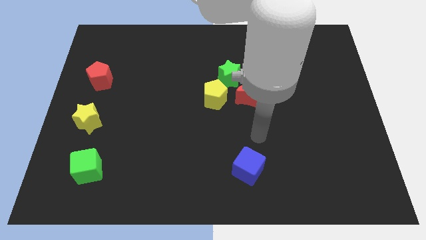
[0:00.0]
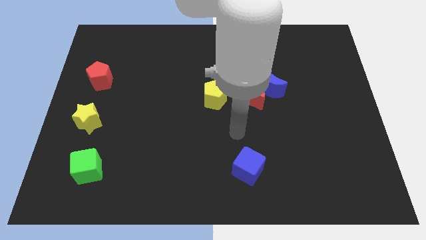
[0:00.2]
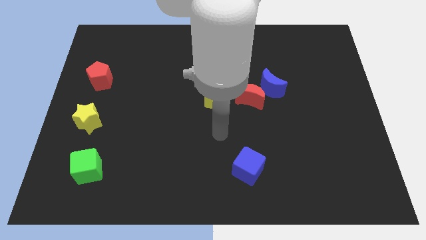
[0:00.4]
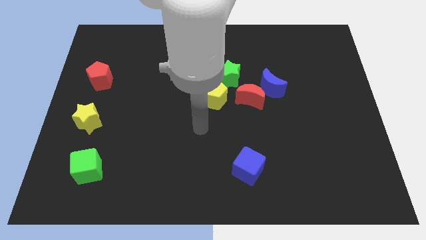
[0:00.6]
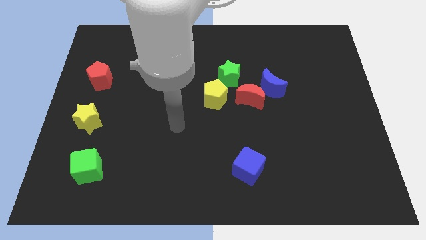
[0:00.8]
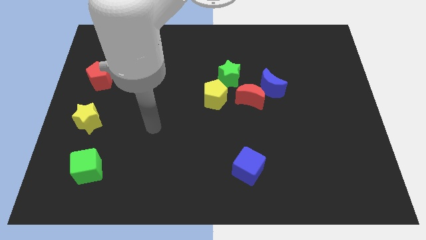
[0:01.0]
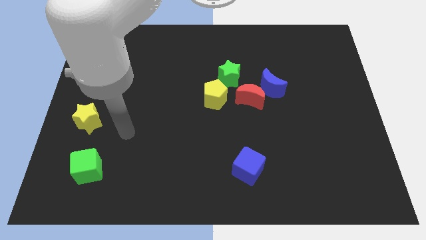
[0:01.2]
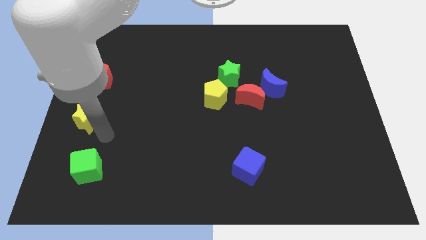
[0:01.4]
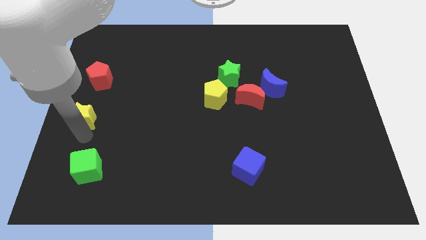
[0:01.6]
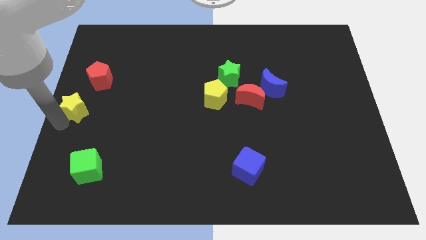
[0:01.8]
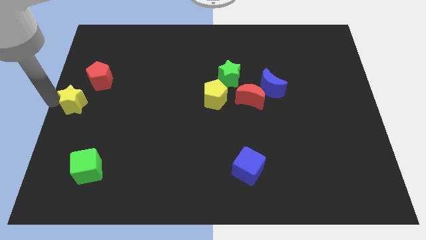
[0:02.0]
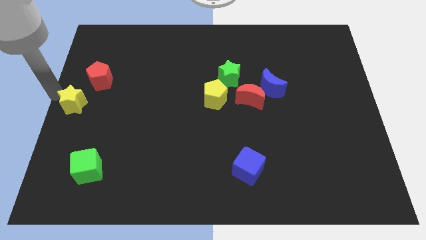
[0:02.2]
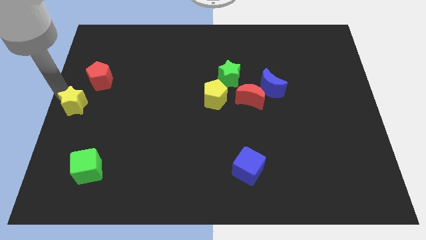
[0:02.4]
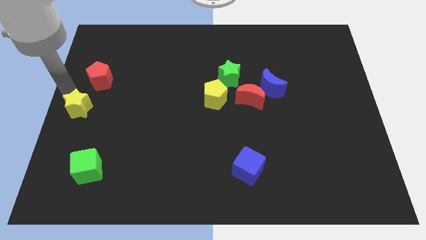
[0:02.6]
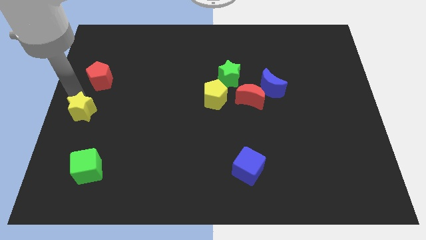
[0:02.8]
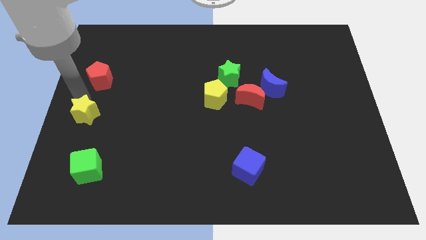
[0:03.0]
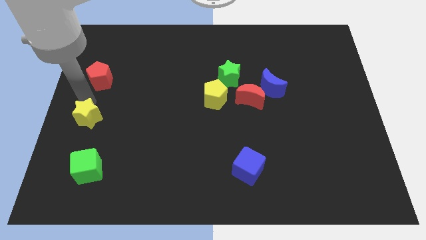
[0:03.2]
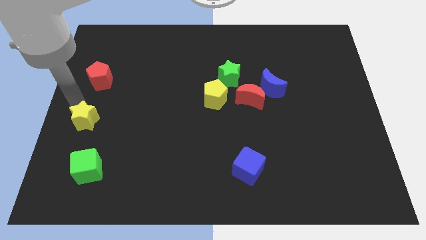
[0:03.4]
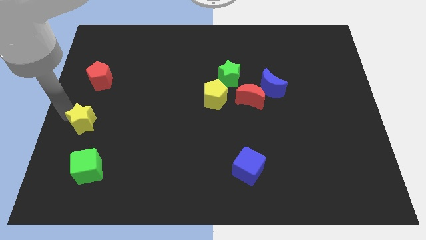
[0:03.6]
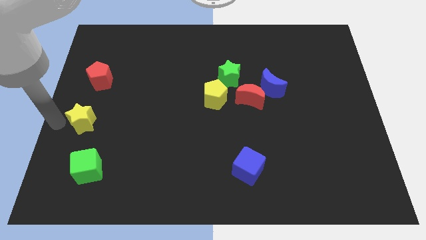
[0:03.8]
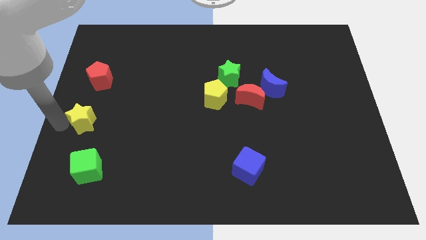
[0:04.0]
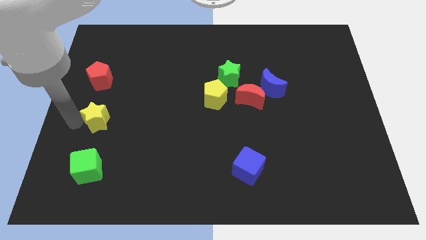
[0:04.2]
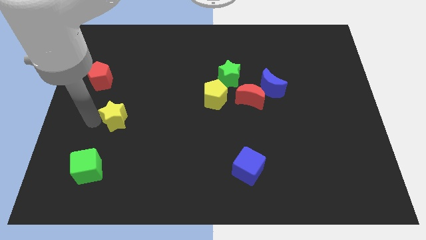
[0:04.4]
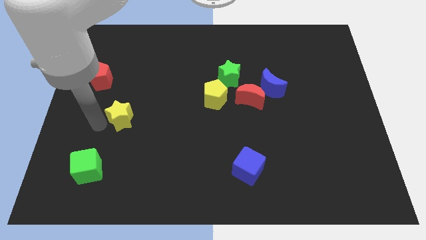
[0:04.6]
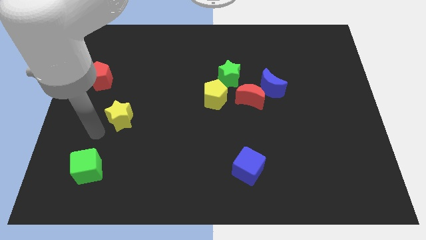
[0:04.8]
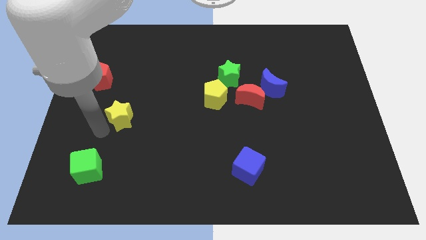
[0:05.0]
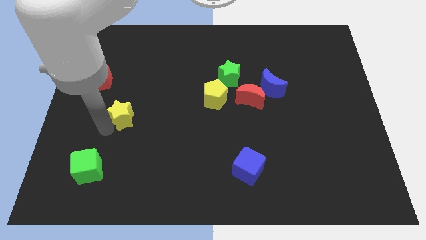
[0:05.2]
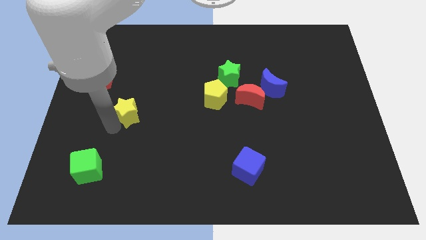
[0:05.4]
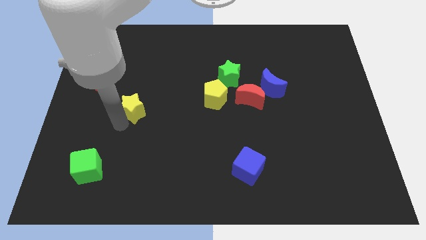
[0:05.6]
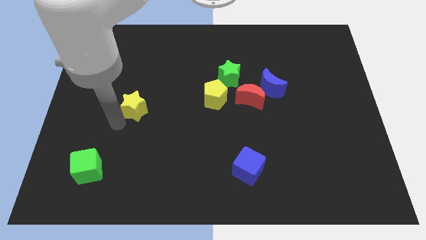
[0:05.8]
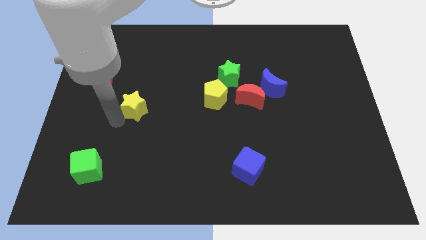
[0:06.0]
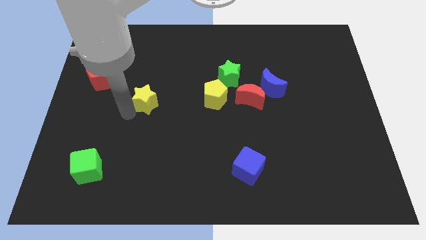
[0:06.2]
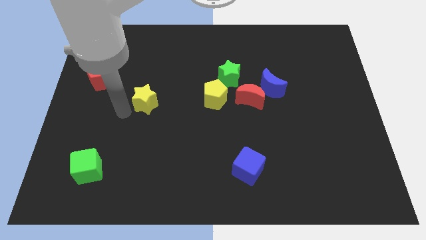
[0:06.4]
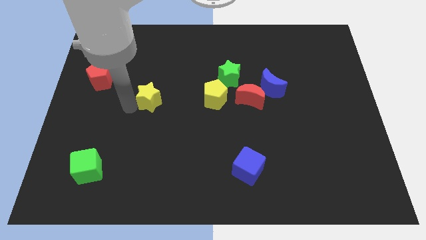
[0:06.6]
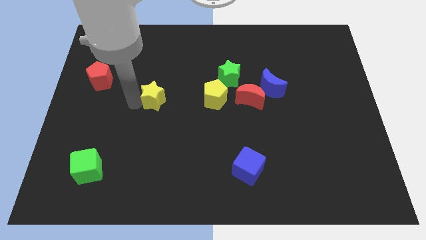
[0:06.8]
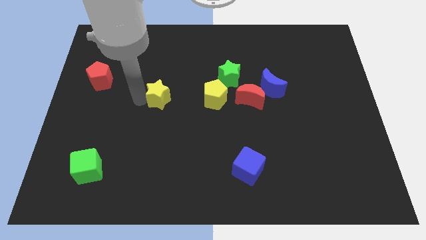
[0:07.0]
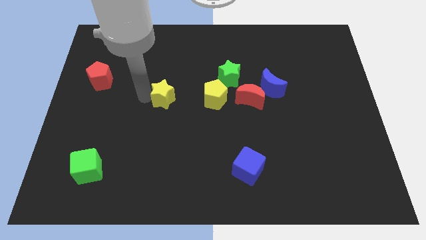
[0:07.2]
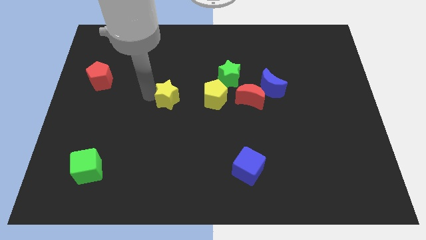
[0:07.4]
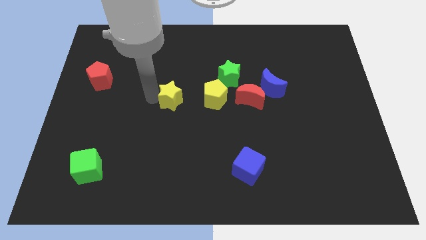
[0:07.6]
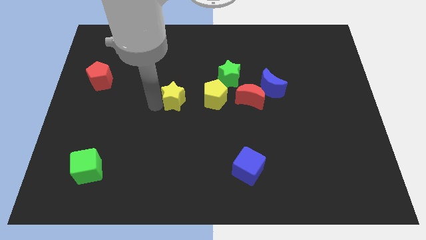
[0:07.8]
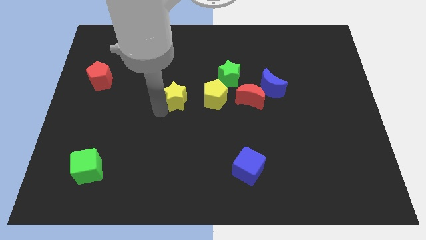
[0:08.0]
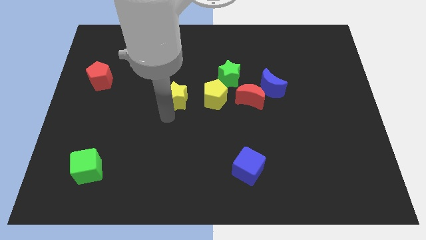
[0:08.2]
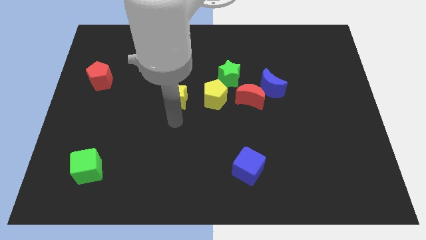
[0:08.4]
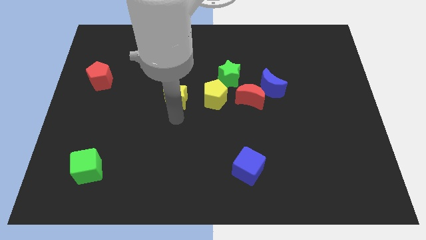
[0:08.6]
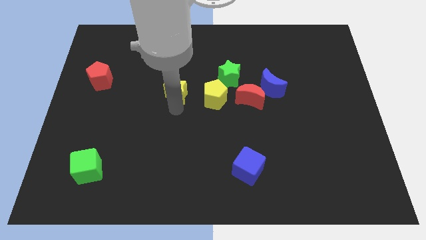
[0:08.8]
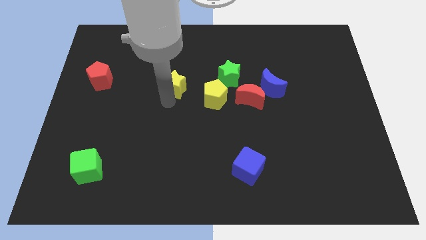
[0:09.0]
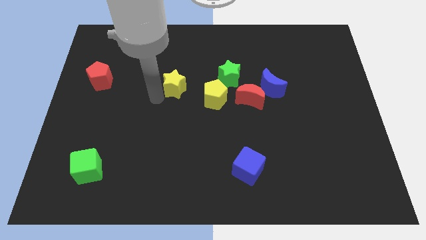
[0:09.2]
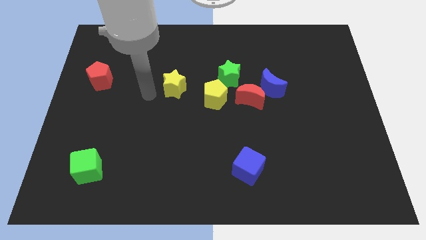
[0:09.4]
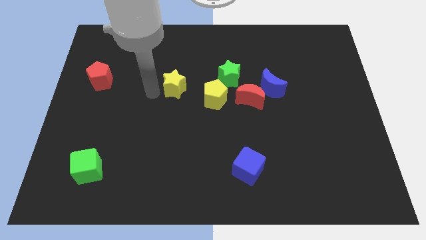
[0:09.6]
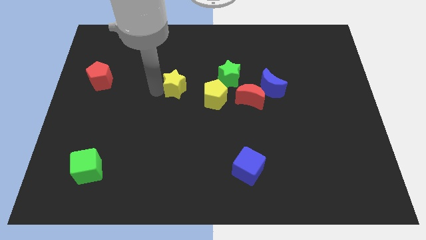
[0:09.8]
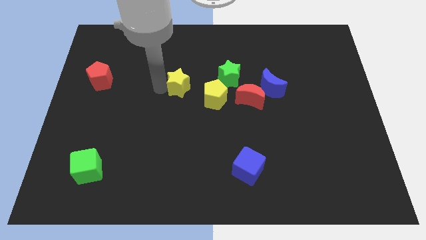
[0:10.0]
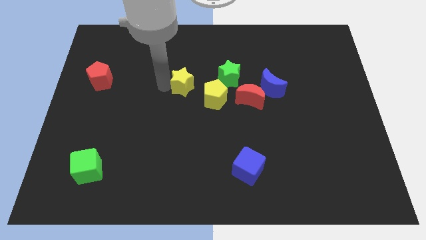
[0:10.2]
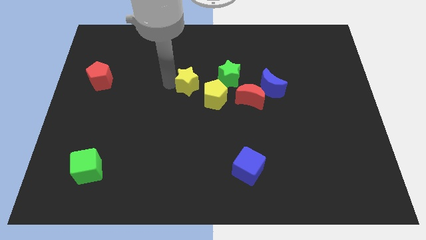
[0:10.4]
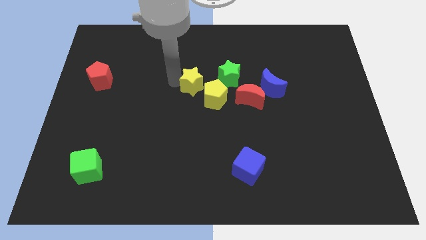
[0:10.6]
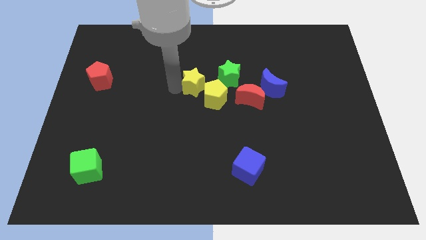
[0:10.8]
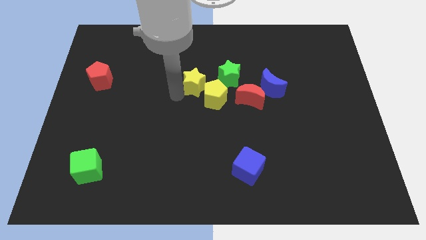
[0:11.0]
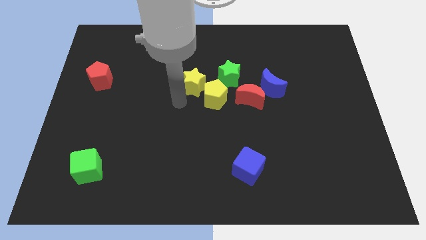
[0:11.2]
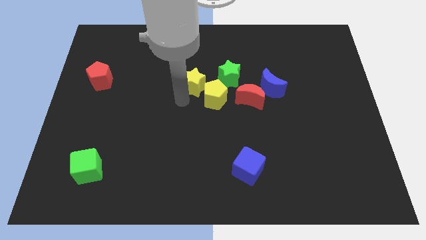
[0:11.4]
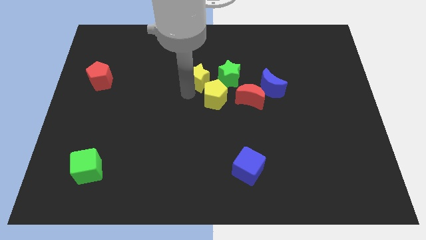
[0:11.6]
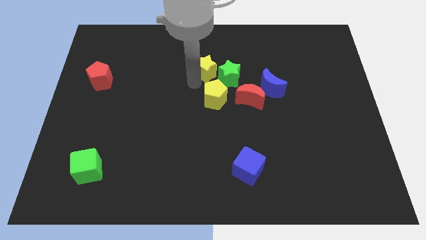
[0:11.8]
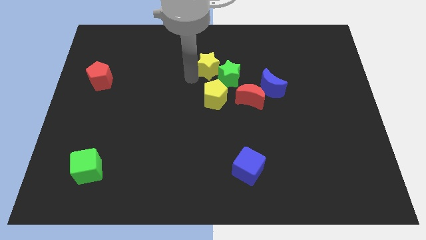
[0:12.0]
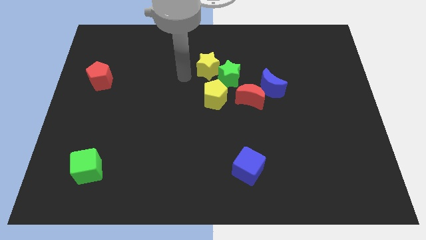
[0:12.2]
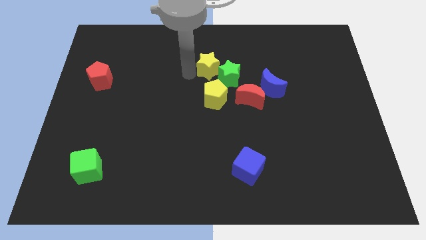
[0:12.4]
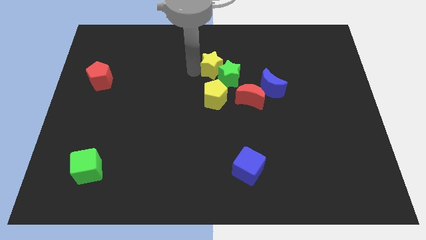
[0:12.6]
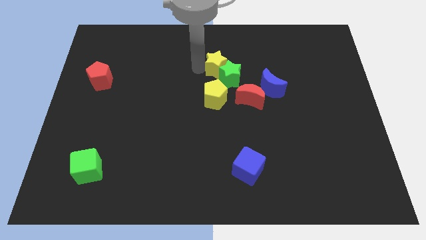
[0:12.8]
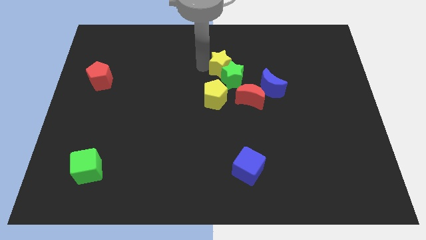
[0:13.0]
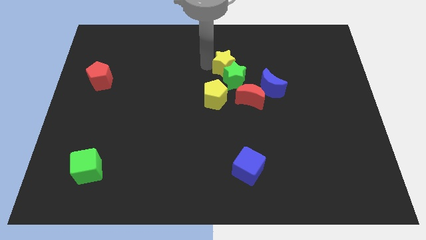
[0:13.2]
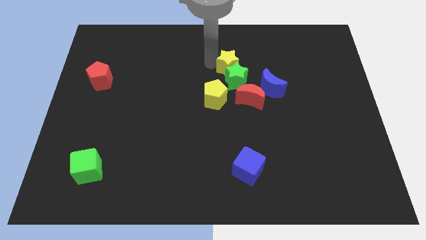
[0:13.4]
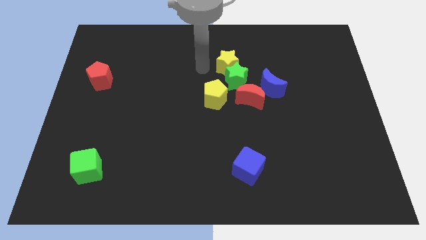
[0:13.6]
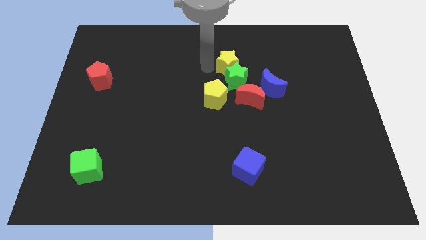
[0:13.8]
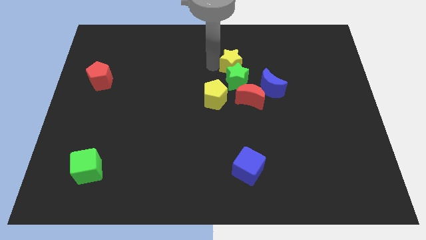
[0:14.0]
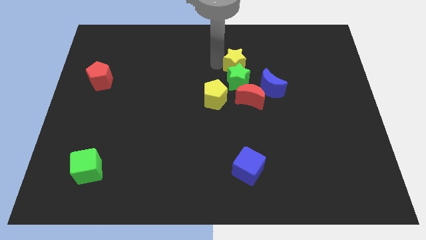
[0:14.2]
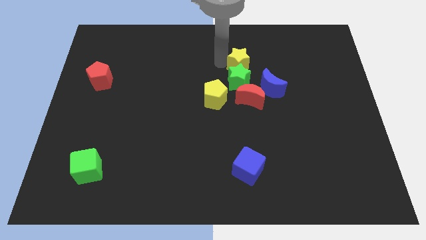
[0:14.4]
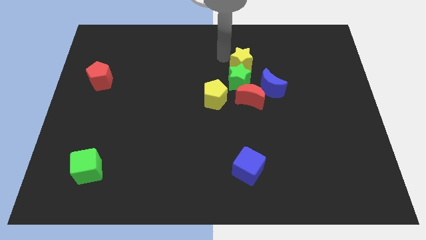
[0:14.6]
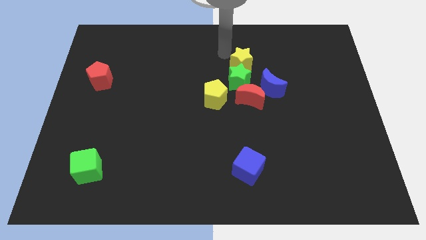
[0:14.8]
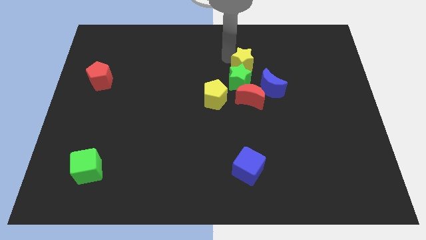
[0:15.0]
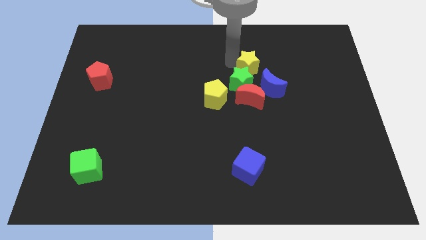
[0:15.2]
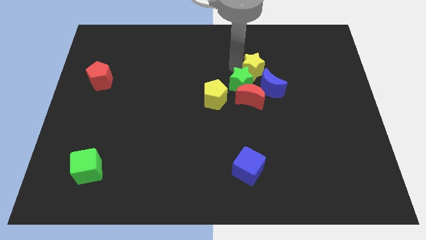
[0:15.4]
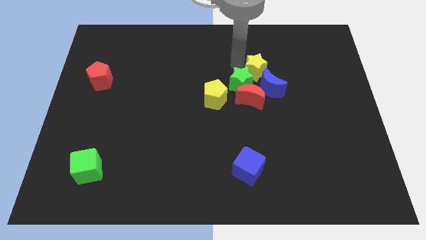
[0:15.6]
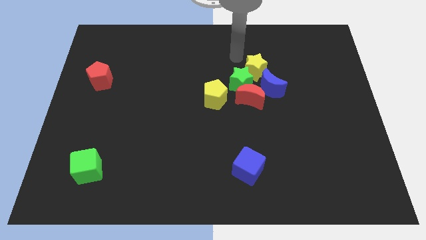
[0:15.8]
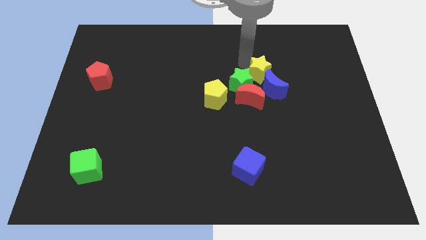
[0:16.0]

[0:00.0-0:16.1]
push the yellow star diagonally up and to the right of the red moon
